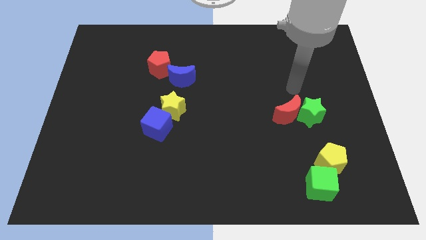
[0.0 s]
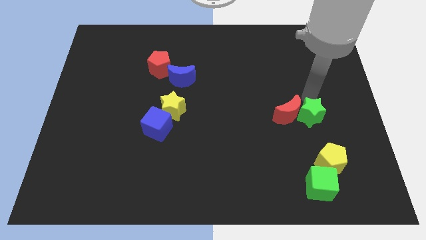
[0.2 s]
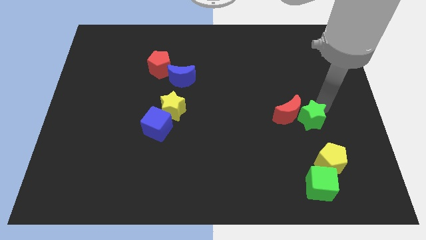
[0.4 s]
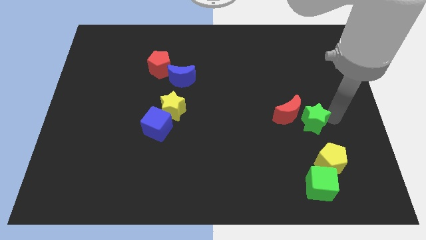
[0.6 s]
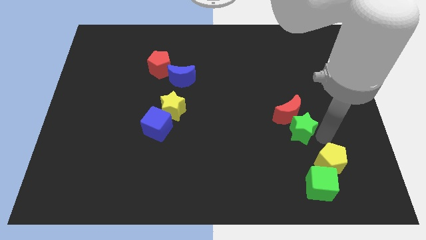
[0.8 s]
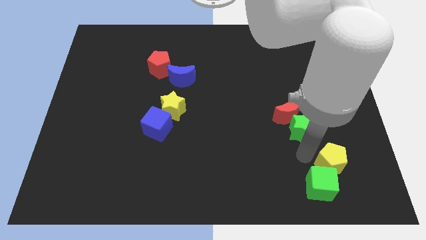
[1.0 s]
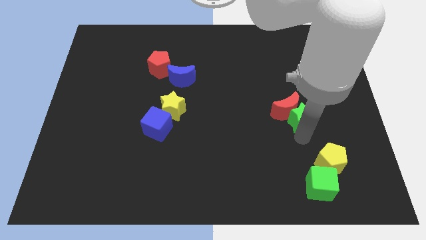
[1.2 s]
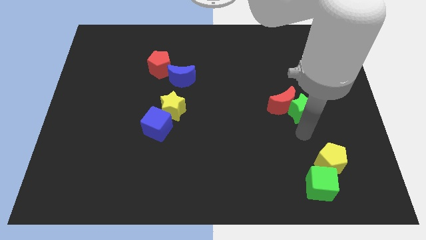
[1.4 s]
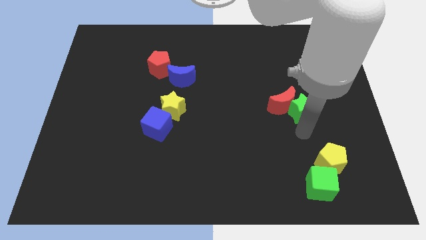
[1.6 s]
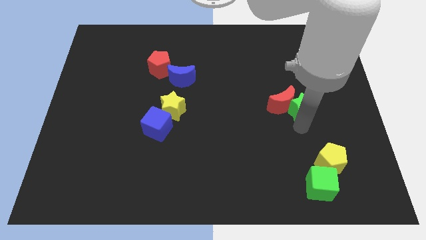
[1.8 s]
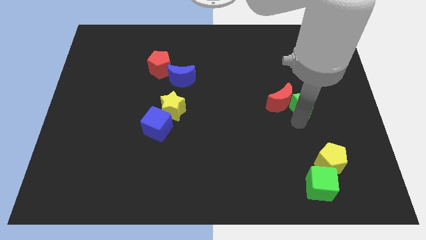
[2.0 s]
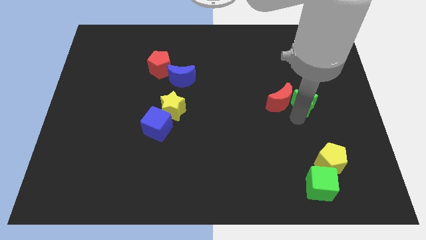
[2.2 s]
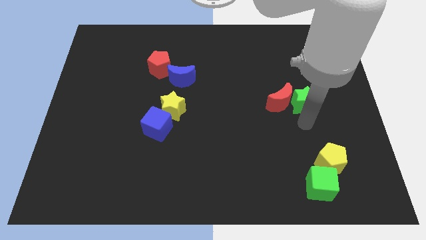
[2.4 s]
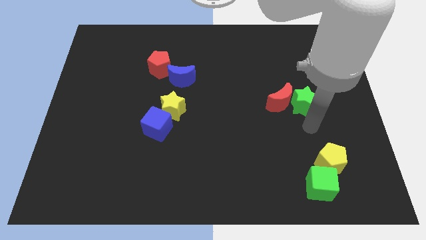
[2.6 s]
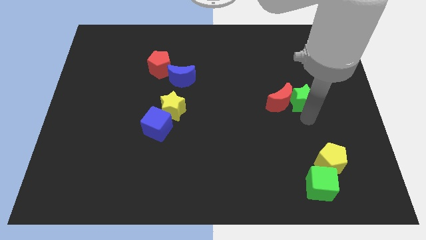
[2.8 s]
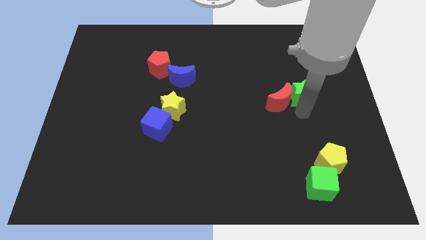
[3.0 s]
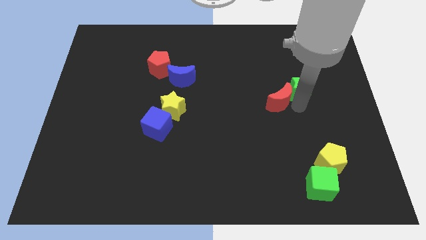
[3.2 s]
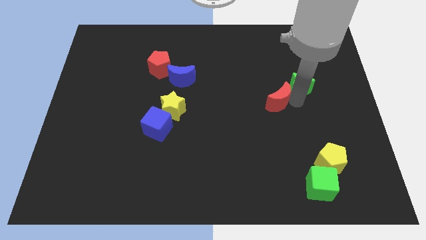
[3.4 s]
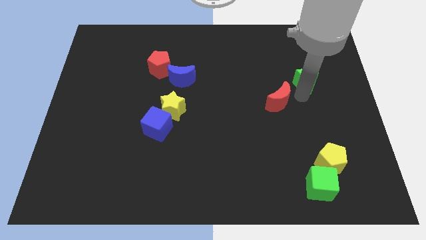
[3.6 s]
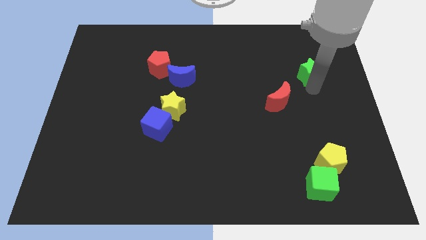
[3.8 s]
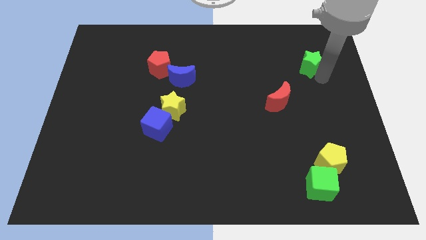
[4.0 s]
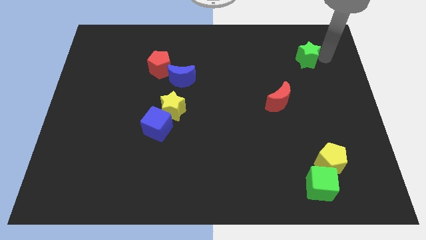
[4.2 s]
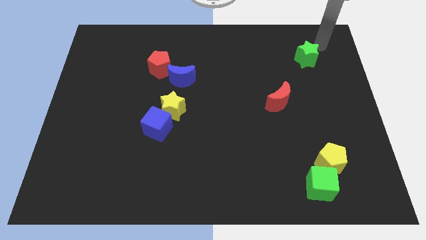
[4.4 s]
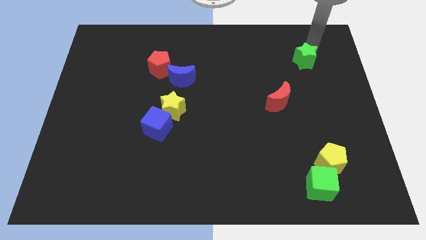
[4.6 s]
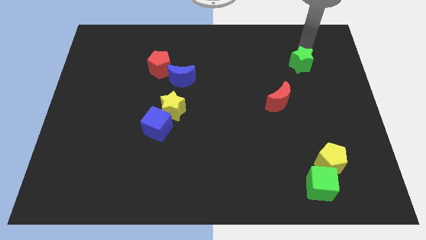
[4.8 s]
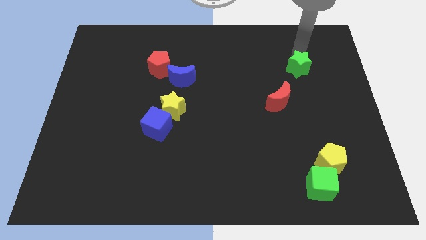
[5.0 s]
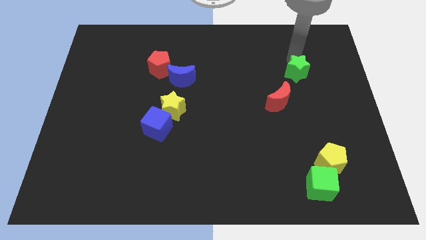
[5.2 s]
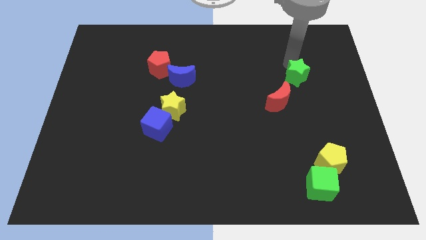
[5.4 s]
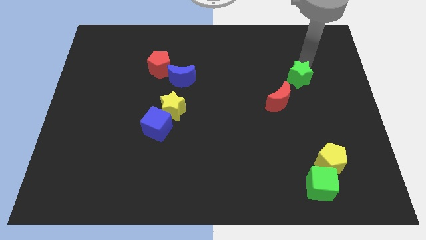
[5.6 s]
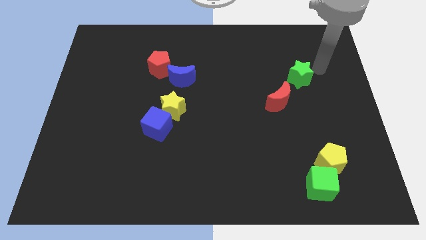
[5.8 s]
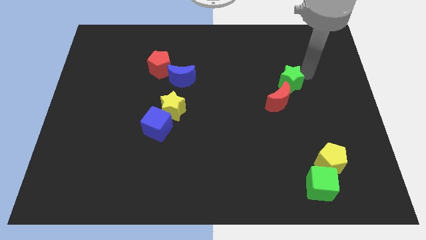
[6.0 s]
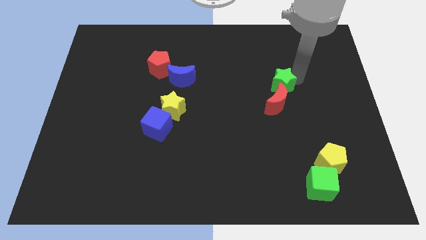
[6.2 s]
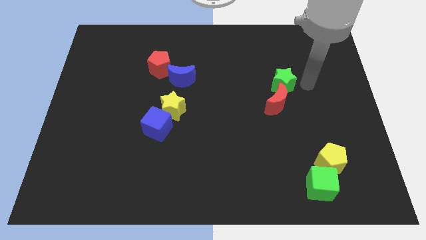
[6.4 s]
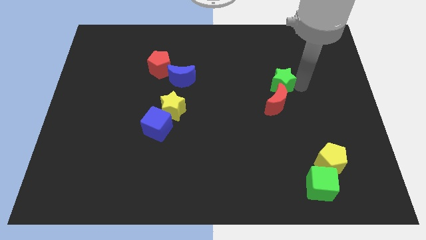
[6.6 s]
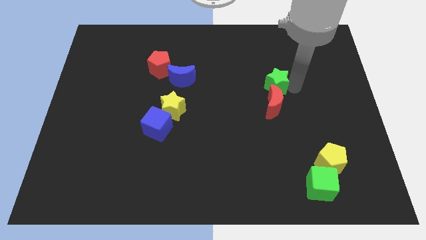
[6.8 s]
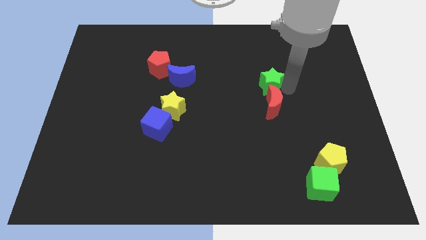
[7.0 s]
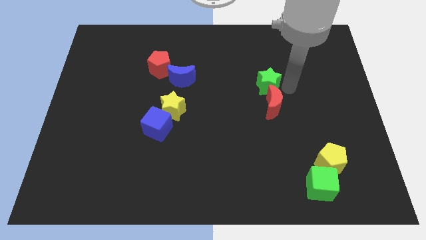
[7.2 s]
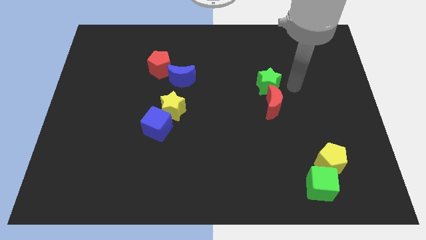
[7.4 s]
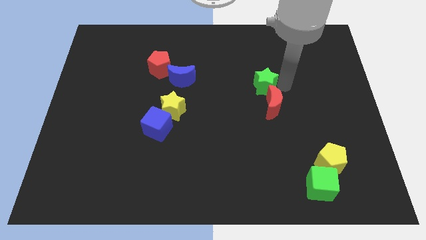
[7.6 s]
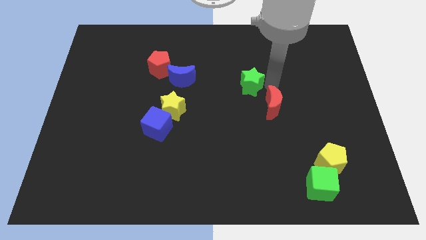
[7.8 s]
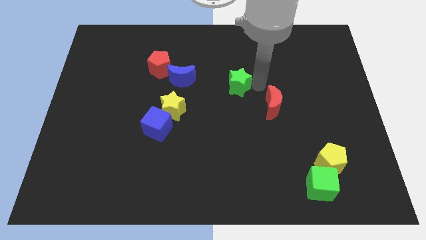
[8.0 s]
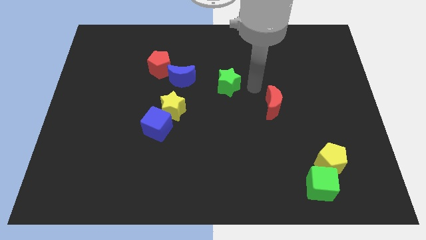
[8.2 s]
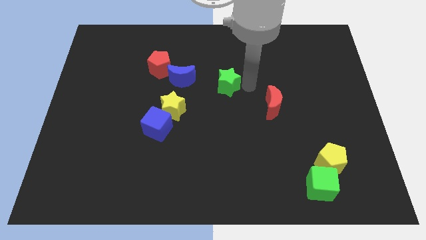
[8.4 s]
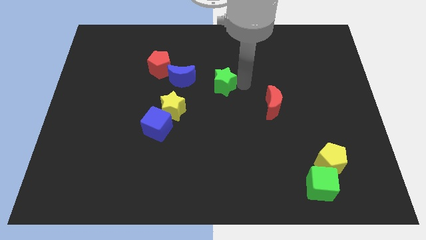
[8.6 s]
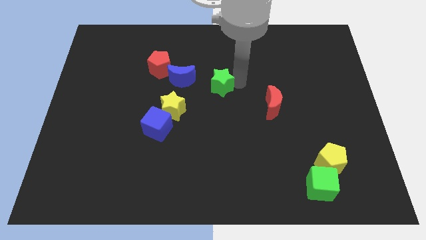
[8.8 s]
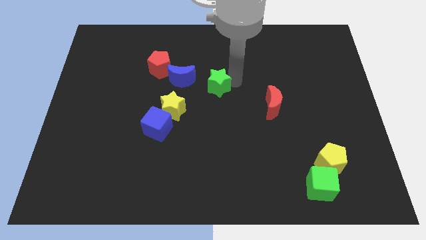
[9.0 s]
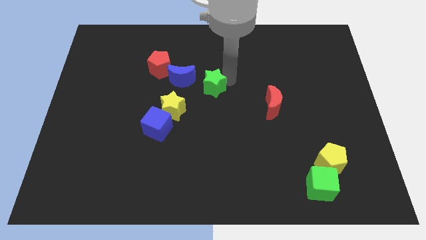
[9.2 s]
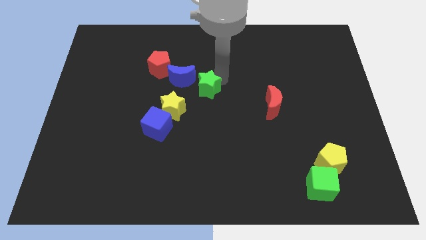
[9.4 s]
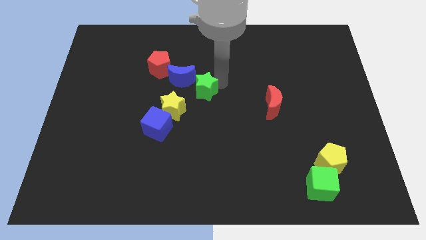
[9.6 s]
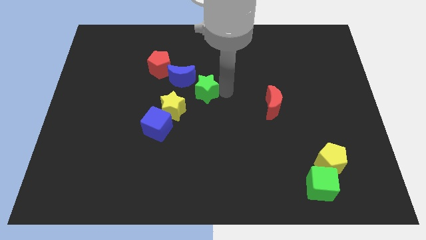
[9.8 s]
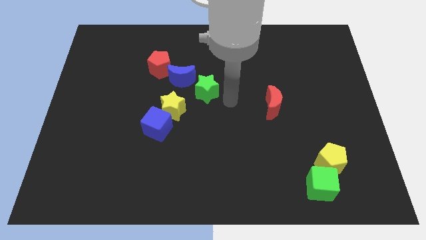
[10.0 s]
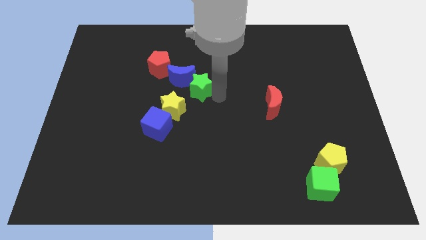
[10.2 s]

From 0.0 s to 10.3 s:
move the green star close to the blue moon

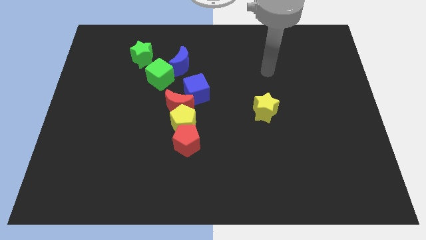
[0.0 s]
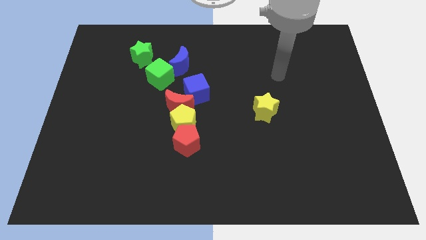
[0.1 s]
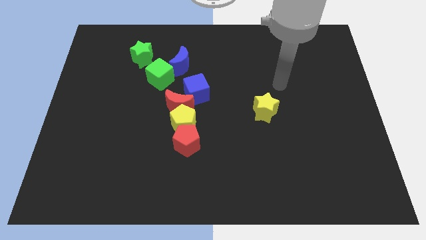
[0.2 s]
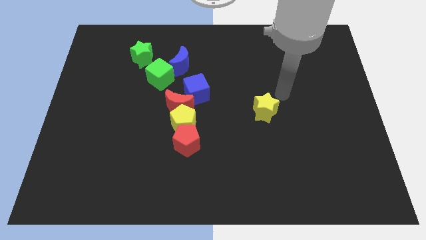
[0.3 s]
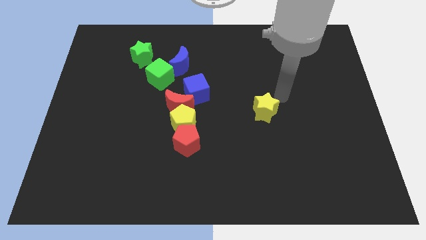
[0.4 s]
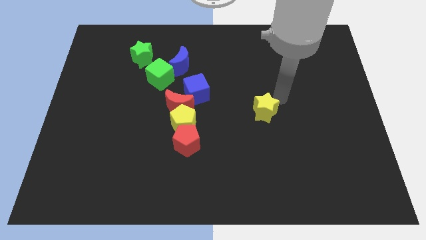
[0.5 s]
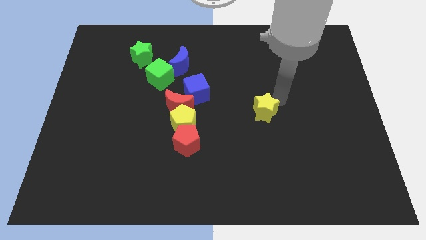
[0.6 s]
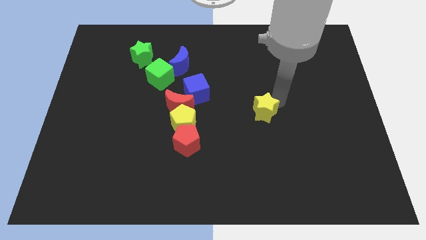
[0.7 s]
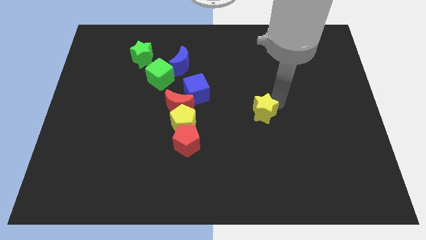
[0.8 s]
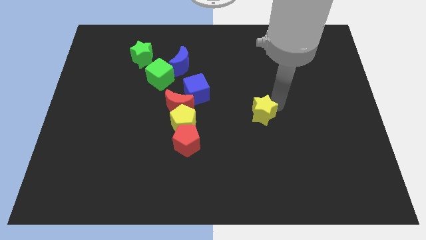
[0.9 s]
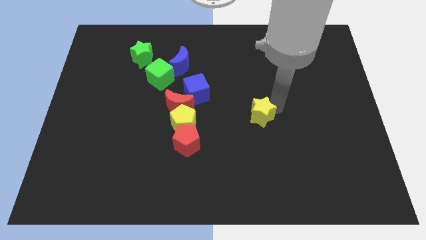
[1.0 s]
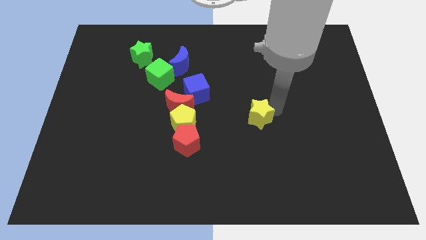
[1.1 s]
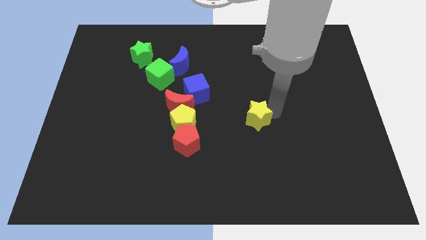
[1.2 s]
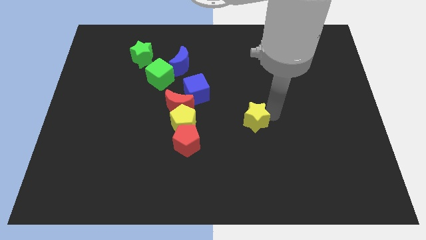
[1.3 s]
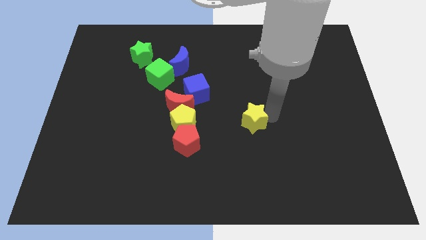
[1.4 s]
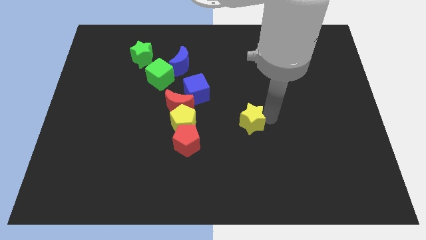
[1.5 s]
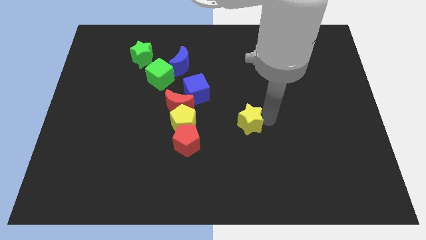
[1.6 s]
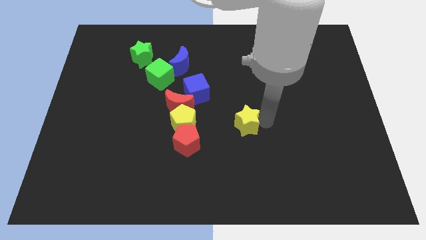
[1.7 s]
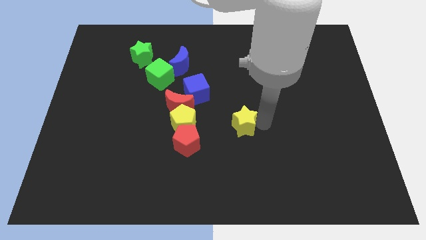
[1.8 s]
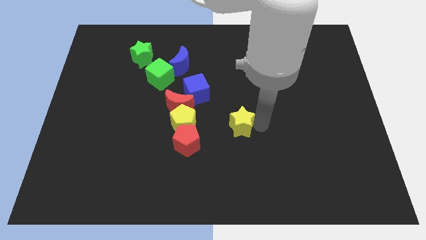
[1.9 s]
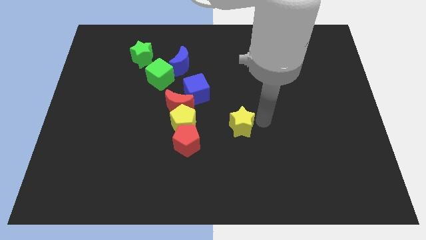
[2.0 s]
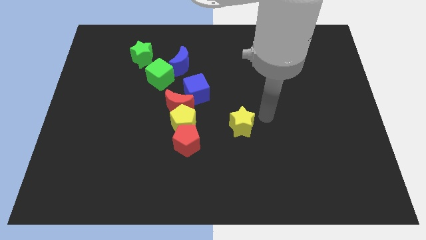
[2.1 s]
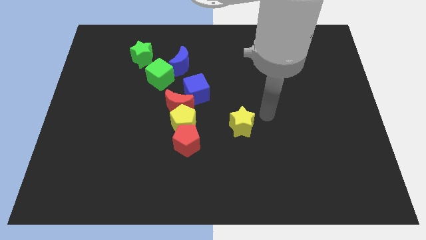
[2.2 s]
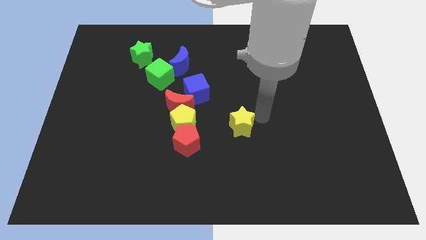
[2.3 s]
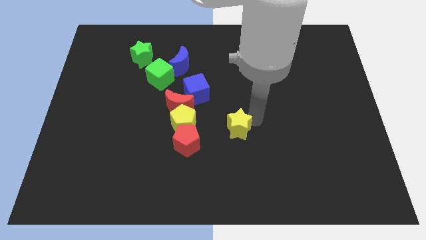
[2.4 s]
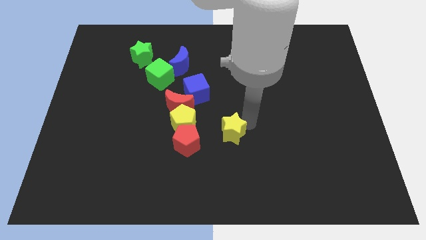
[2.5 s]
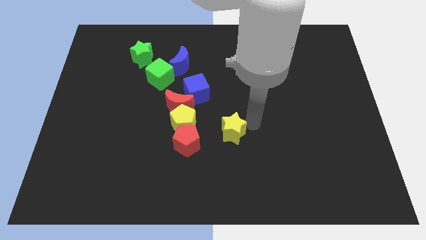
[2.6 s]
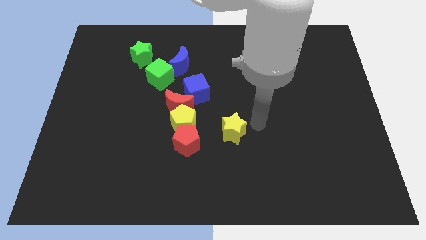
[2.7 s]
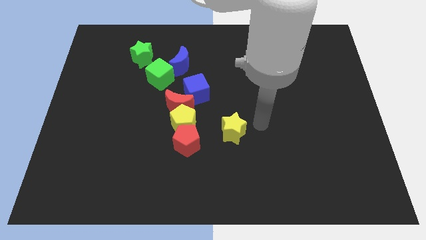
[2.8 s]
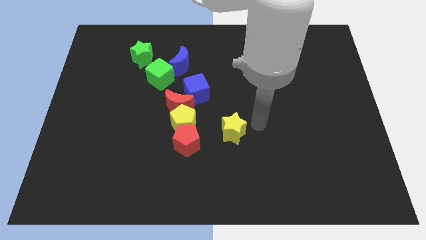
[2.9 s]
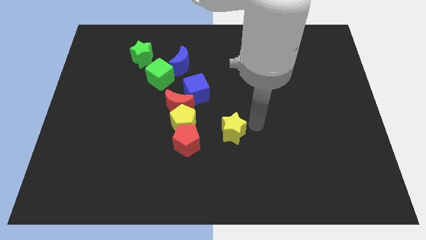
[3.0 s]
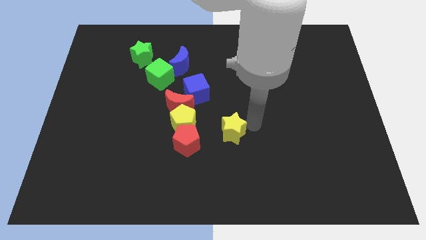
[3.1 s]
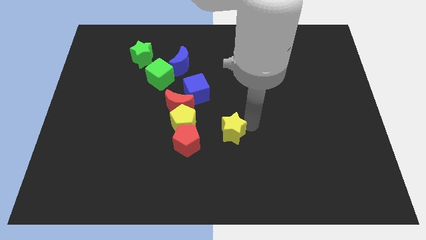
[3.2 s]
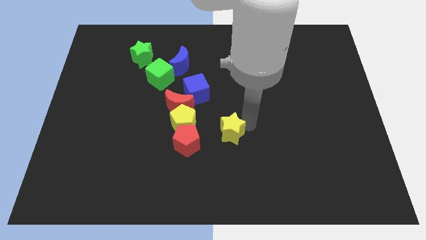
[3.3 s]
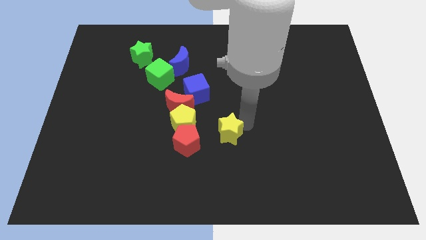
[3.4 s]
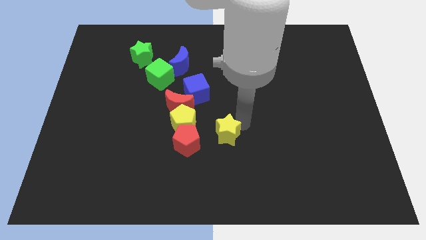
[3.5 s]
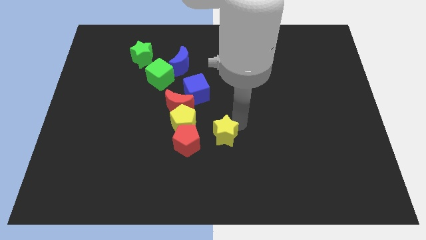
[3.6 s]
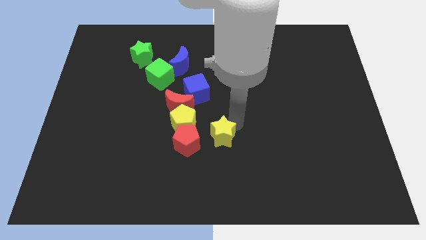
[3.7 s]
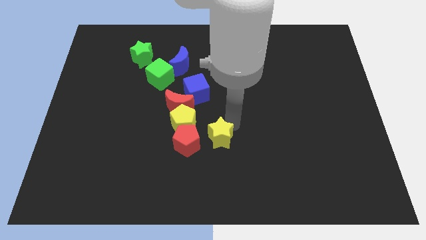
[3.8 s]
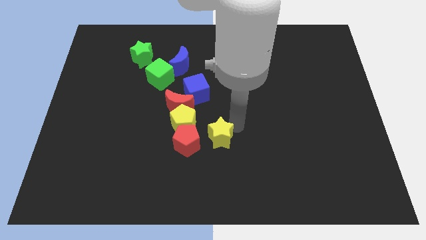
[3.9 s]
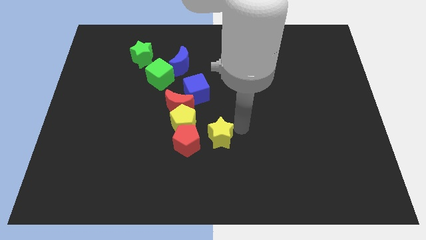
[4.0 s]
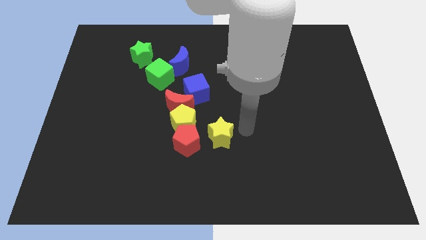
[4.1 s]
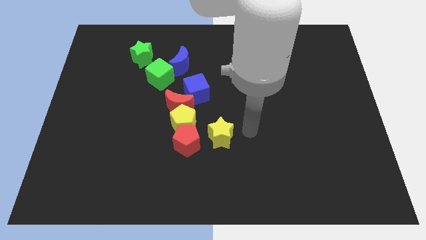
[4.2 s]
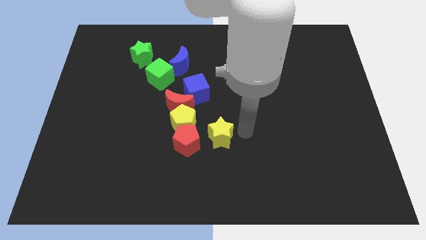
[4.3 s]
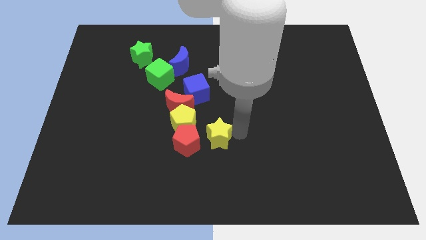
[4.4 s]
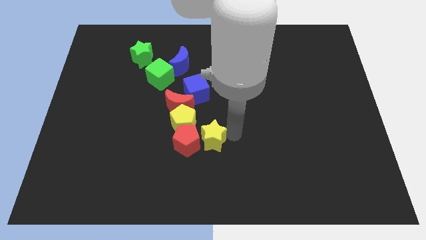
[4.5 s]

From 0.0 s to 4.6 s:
slide the yellow star to the red pentagon
